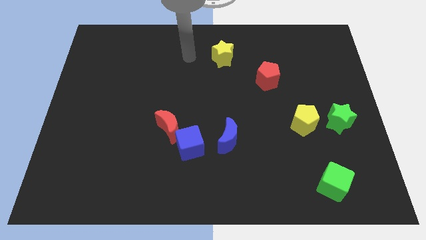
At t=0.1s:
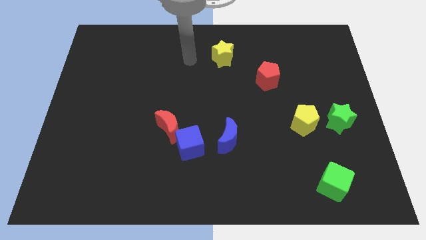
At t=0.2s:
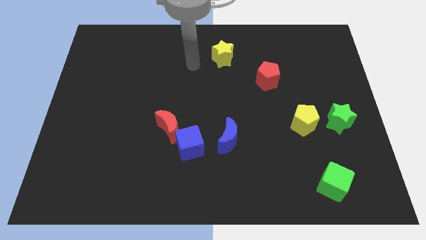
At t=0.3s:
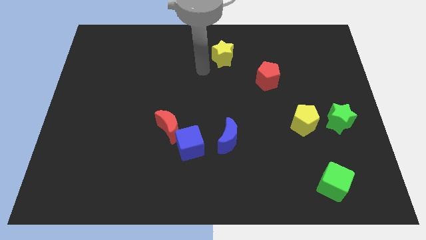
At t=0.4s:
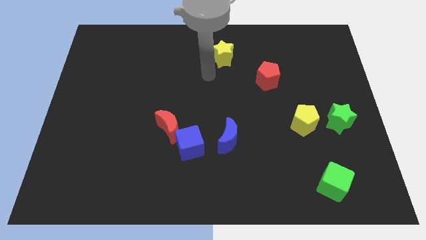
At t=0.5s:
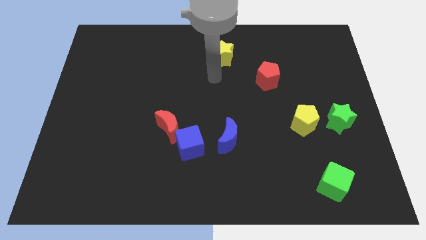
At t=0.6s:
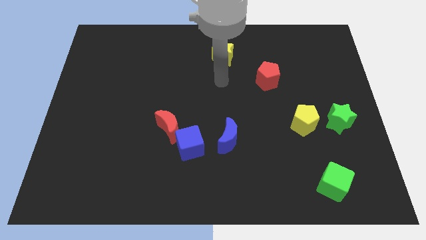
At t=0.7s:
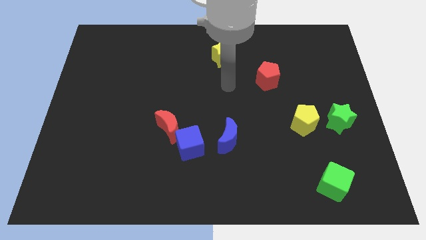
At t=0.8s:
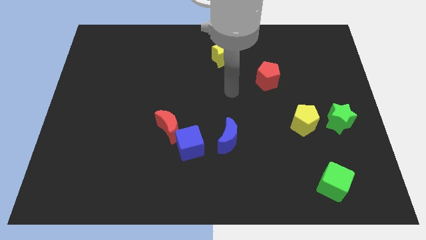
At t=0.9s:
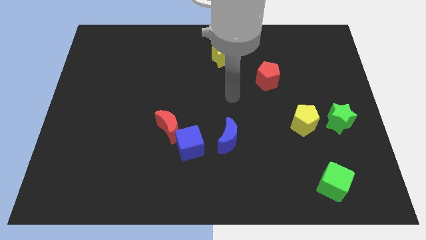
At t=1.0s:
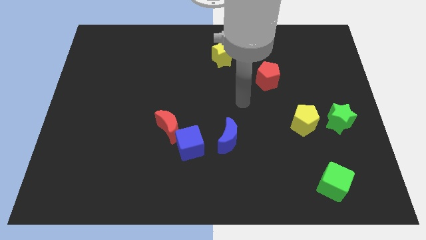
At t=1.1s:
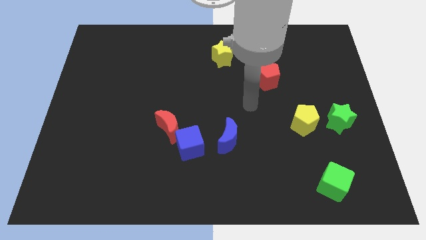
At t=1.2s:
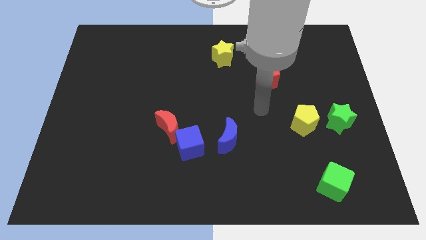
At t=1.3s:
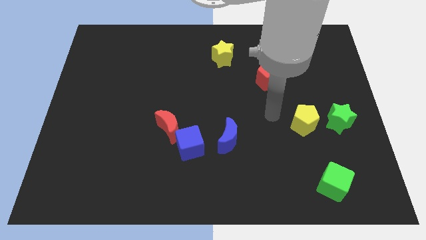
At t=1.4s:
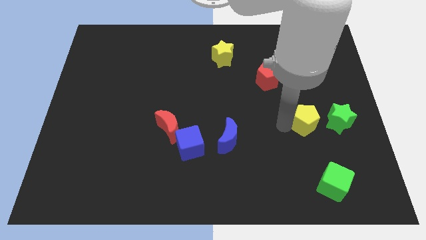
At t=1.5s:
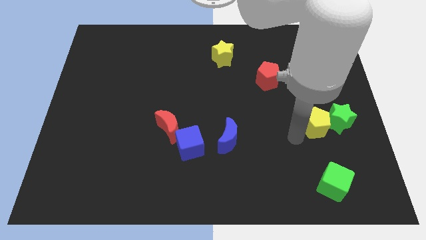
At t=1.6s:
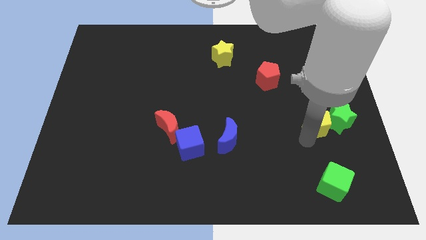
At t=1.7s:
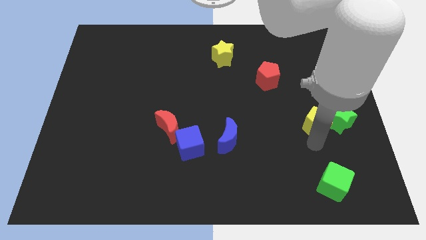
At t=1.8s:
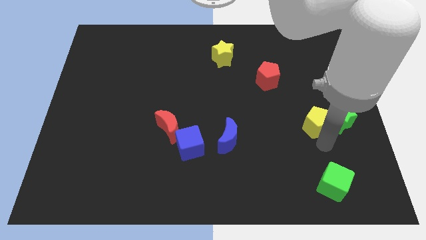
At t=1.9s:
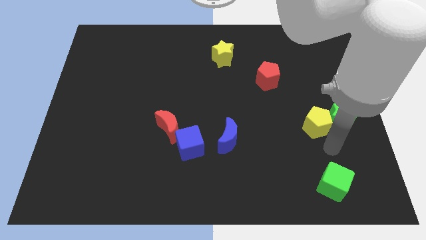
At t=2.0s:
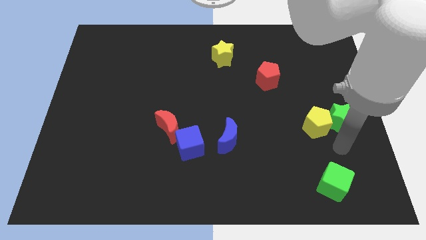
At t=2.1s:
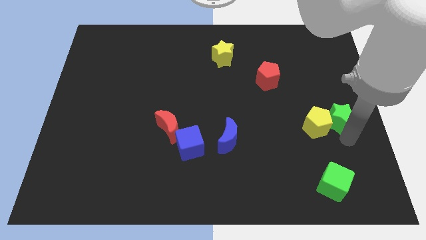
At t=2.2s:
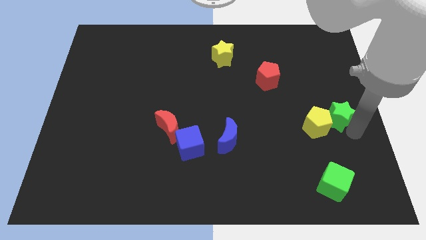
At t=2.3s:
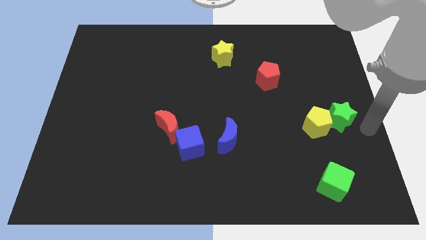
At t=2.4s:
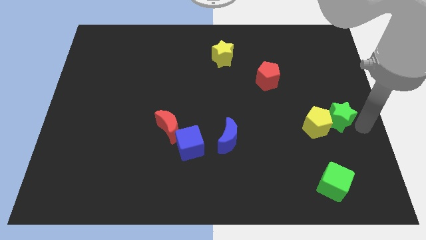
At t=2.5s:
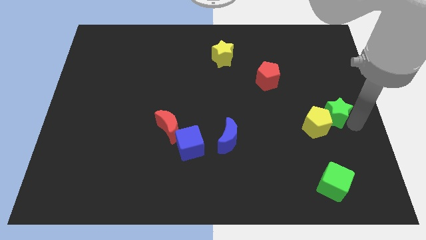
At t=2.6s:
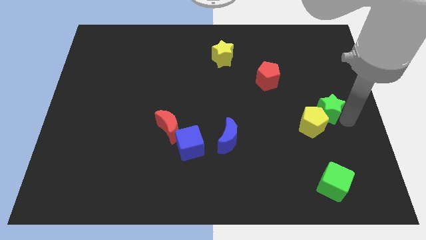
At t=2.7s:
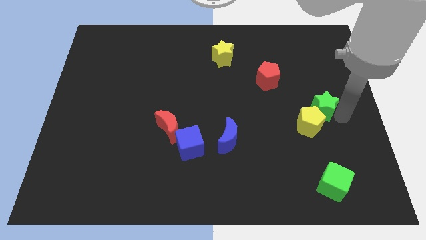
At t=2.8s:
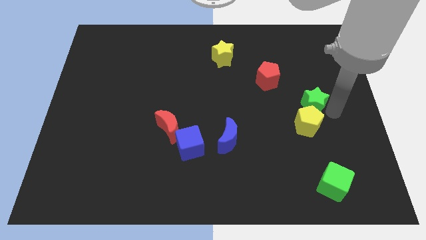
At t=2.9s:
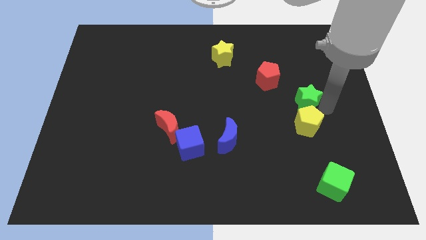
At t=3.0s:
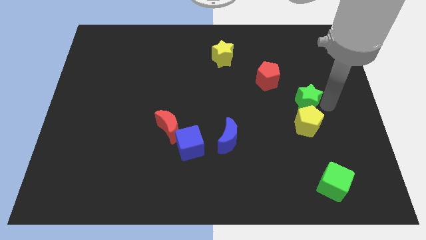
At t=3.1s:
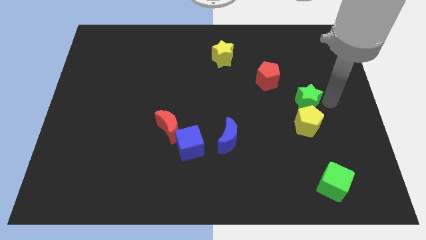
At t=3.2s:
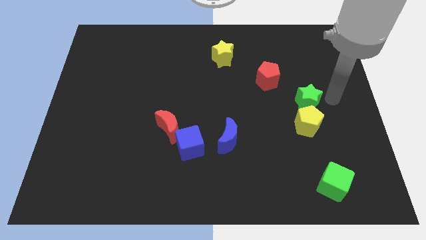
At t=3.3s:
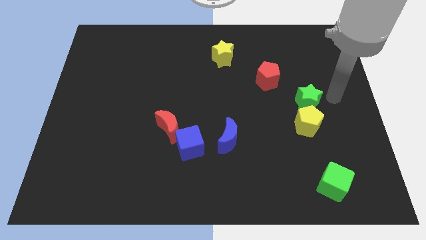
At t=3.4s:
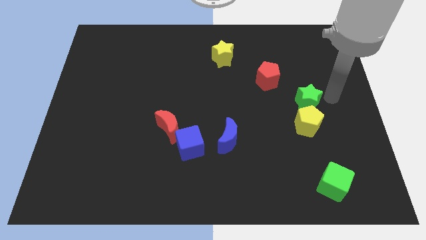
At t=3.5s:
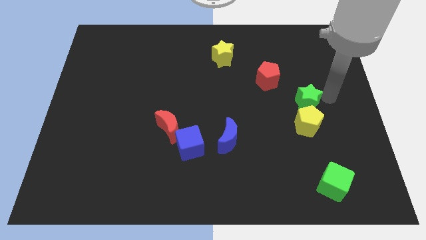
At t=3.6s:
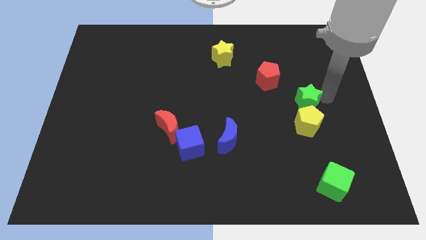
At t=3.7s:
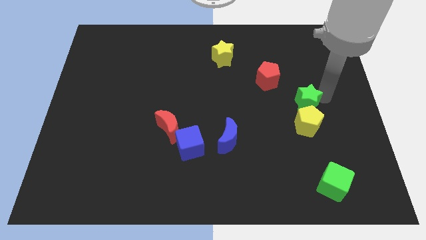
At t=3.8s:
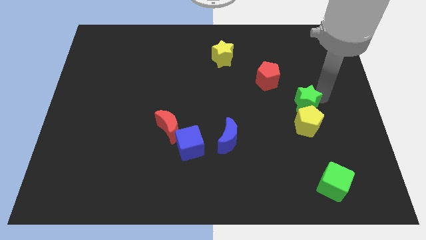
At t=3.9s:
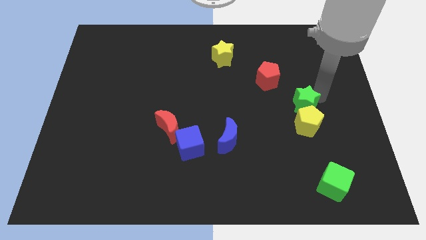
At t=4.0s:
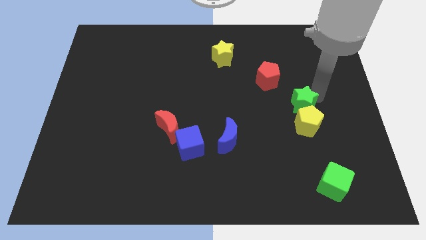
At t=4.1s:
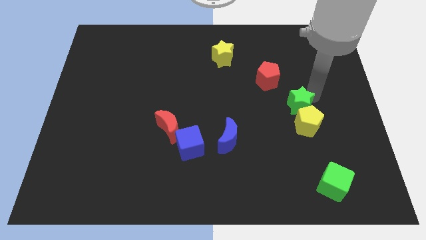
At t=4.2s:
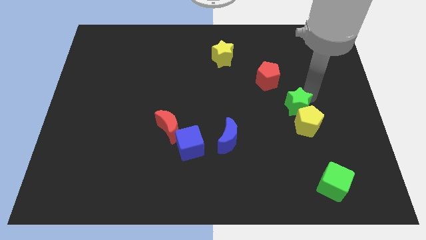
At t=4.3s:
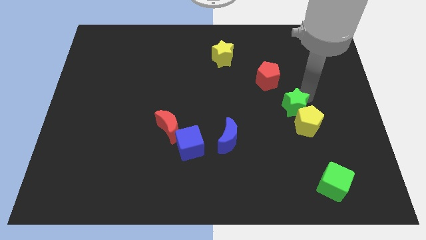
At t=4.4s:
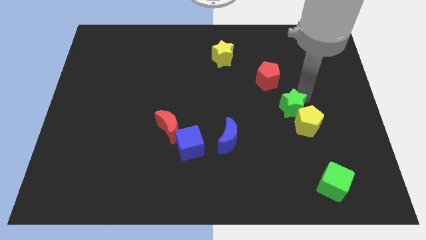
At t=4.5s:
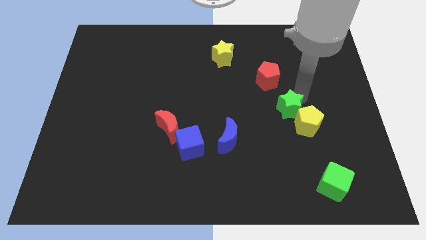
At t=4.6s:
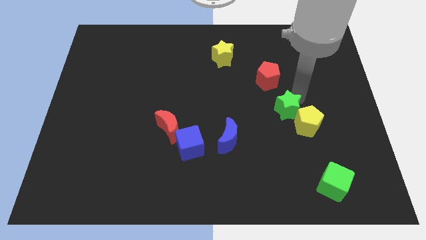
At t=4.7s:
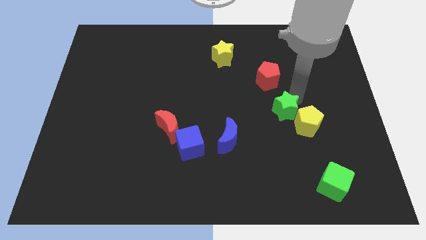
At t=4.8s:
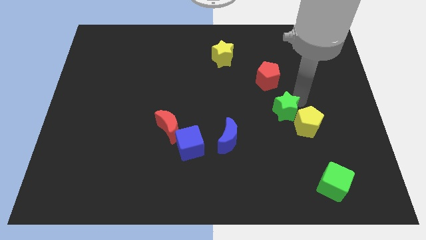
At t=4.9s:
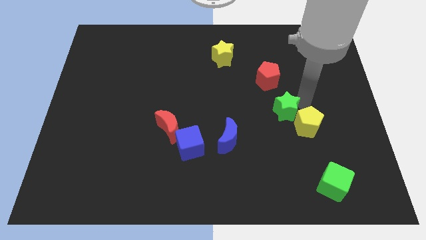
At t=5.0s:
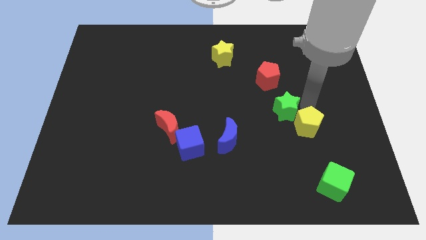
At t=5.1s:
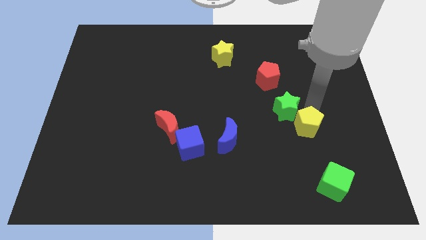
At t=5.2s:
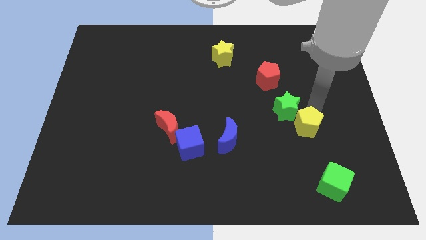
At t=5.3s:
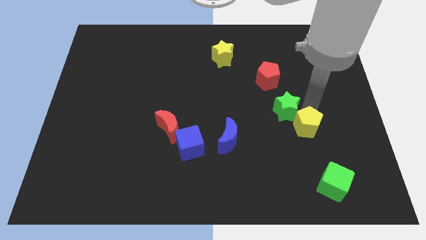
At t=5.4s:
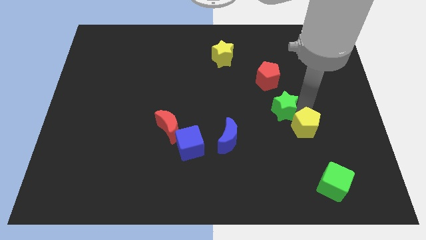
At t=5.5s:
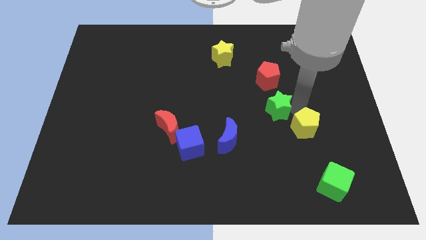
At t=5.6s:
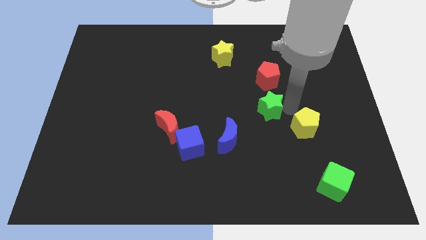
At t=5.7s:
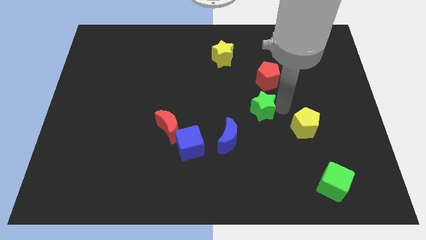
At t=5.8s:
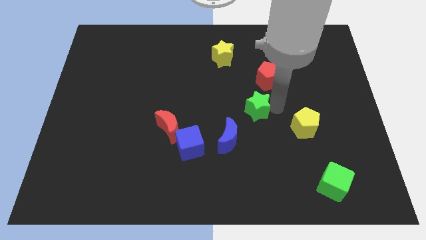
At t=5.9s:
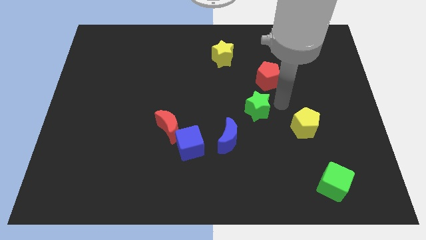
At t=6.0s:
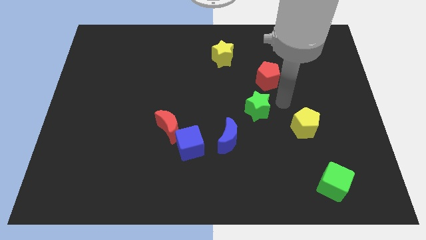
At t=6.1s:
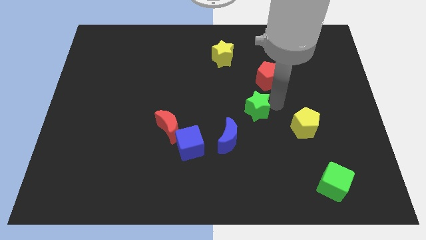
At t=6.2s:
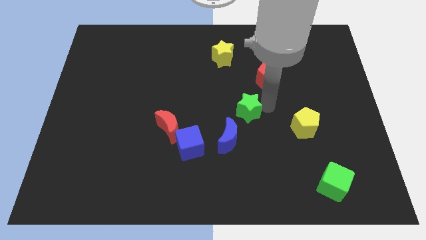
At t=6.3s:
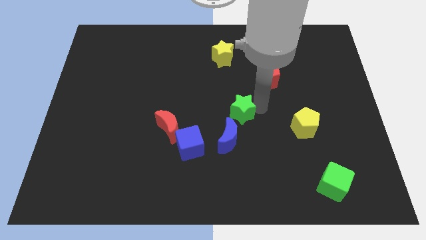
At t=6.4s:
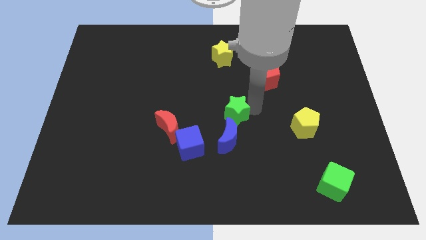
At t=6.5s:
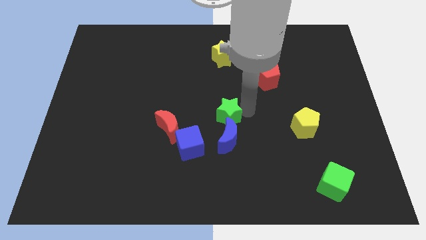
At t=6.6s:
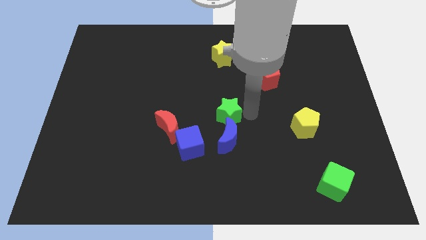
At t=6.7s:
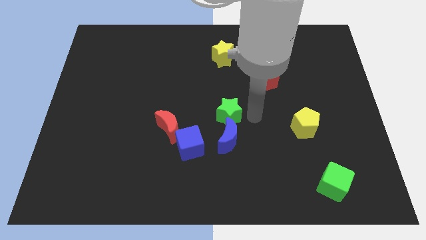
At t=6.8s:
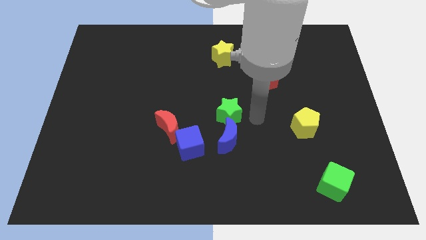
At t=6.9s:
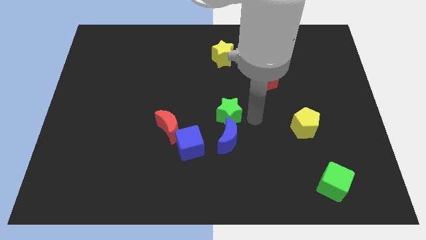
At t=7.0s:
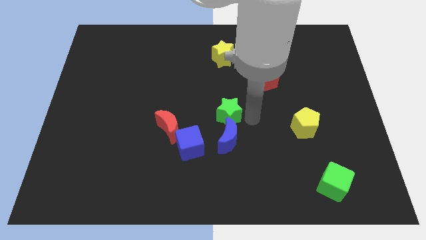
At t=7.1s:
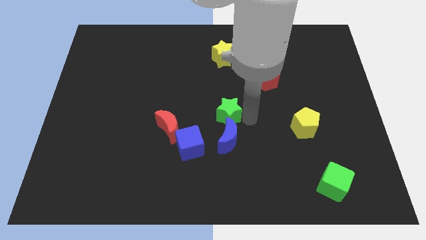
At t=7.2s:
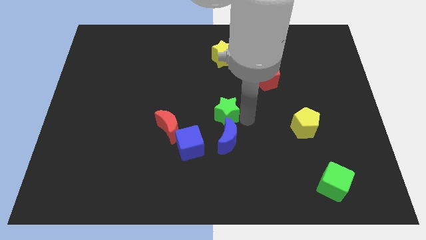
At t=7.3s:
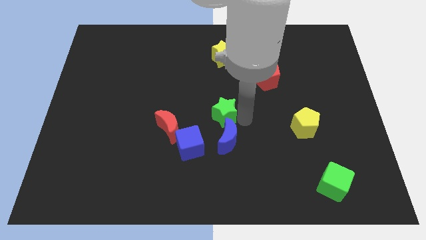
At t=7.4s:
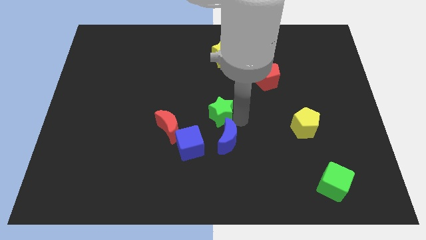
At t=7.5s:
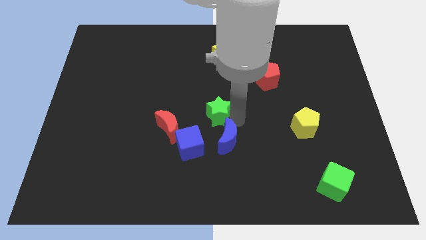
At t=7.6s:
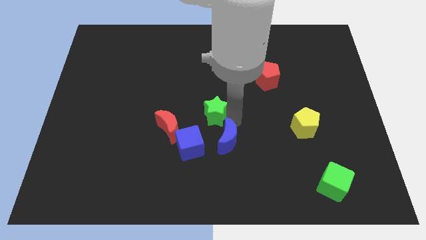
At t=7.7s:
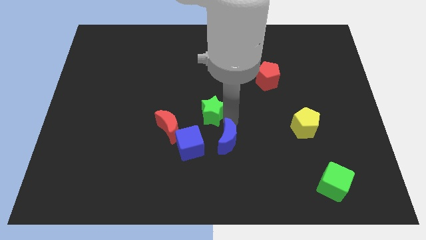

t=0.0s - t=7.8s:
slide the green star to the top of the blue cube
